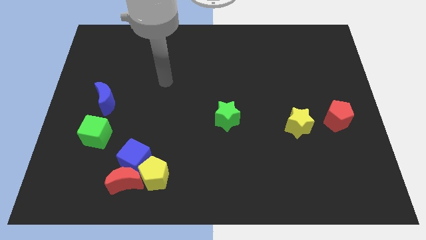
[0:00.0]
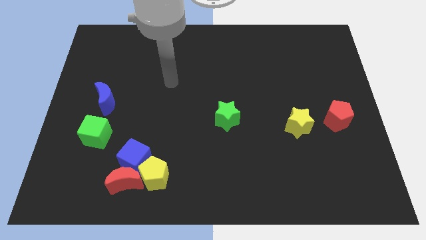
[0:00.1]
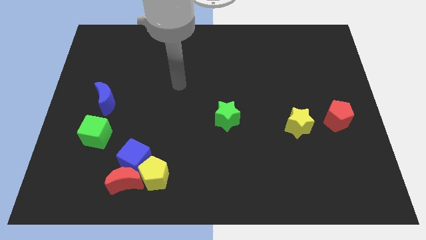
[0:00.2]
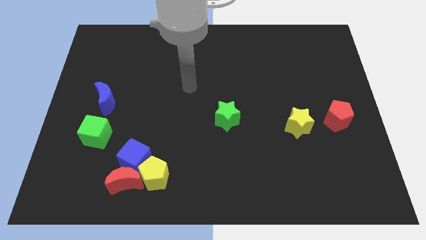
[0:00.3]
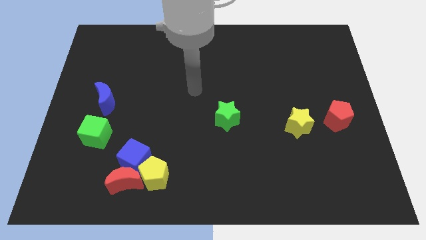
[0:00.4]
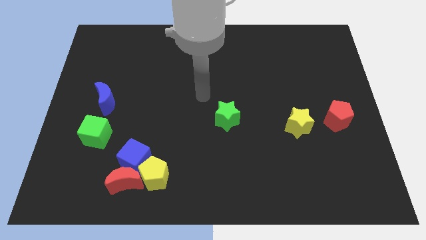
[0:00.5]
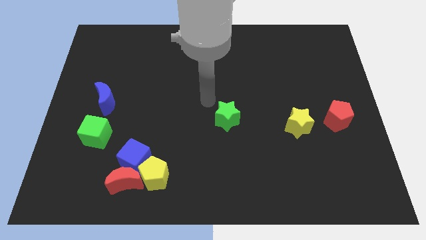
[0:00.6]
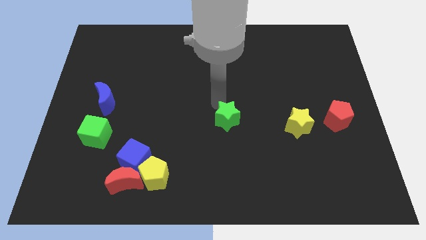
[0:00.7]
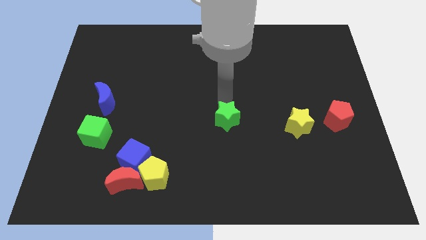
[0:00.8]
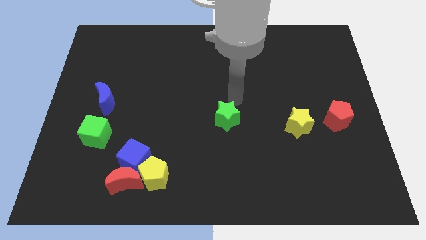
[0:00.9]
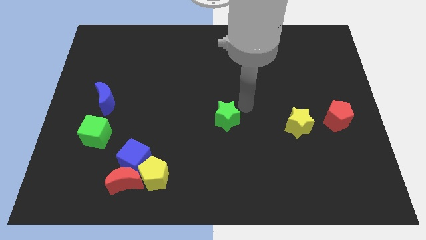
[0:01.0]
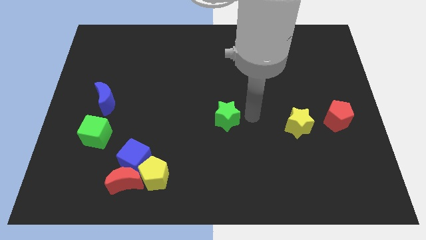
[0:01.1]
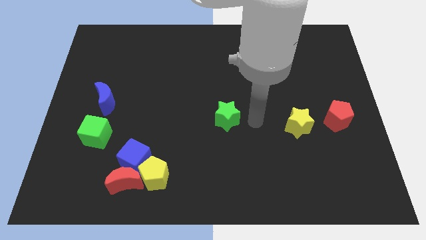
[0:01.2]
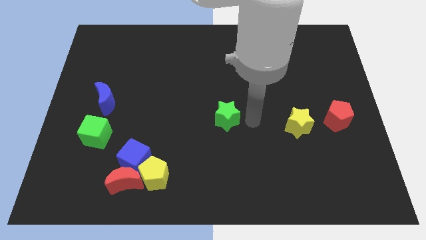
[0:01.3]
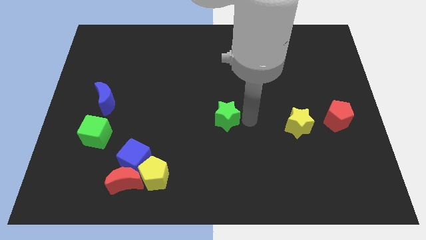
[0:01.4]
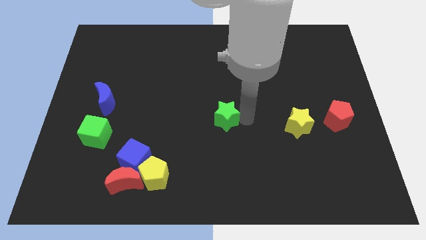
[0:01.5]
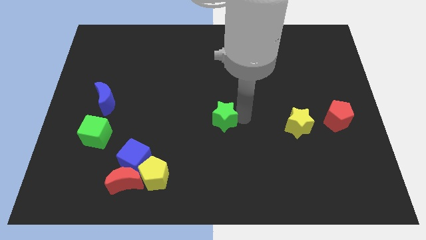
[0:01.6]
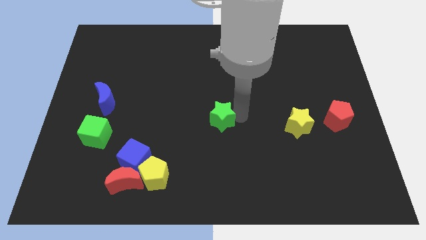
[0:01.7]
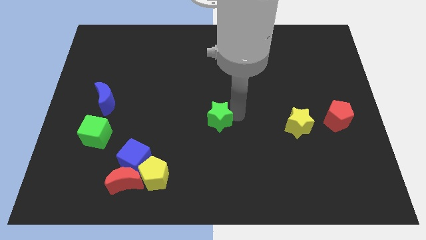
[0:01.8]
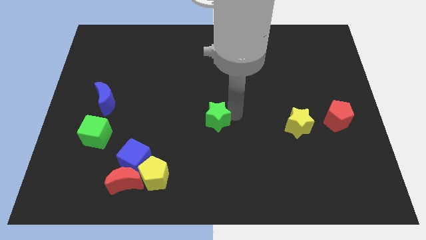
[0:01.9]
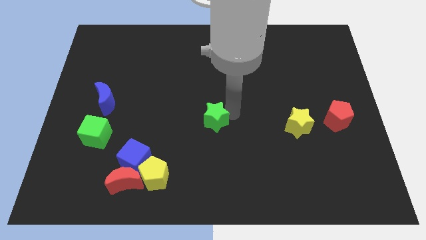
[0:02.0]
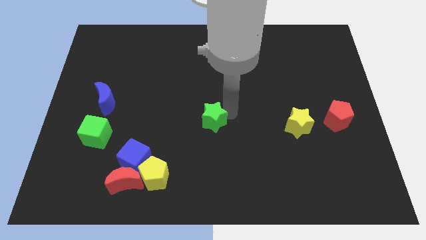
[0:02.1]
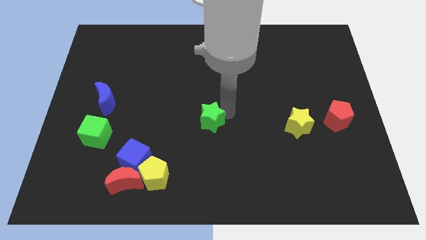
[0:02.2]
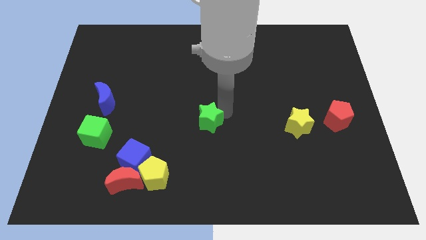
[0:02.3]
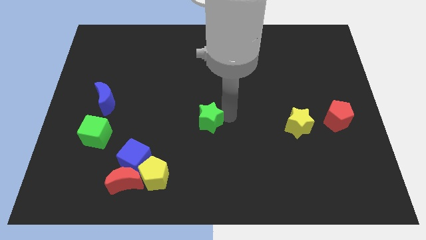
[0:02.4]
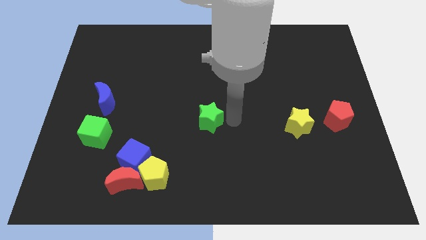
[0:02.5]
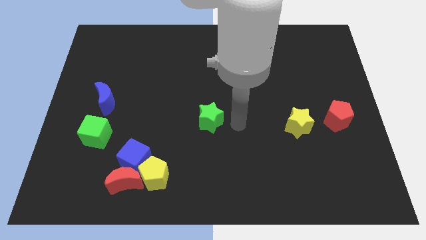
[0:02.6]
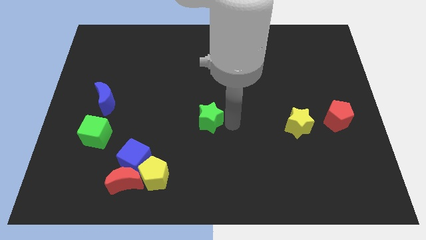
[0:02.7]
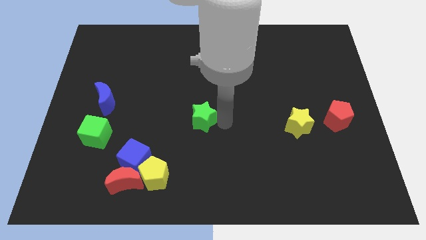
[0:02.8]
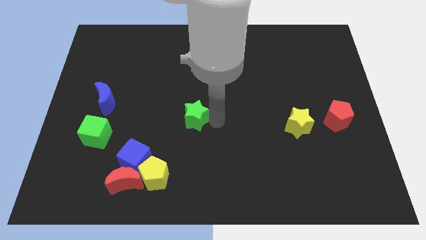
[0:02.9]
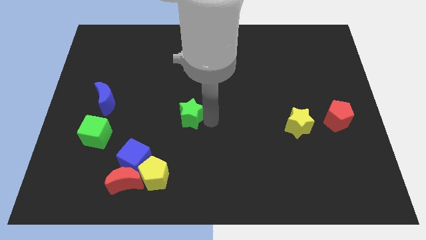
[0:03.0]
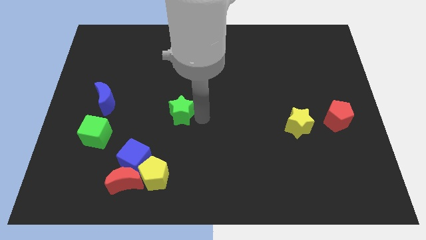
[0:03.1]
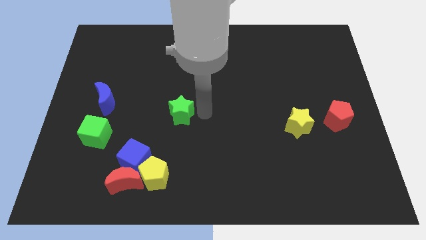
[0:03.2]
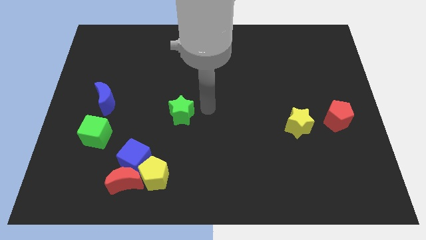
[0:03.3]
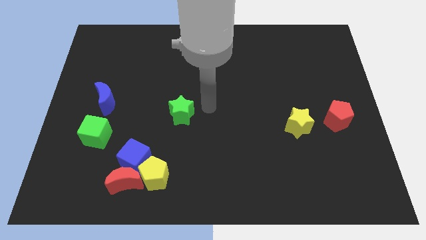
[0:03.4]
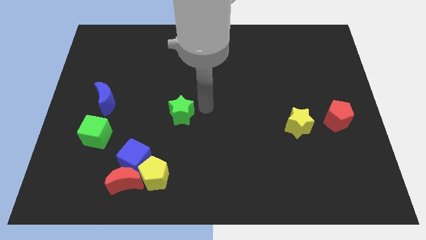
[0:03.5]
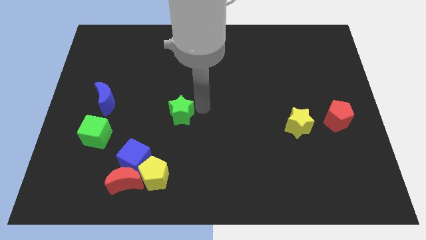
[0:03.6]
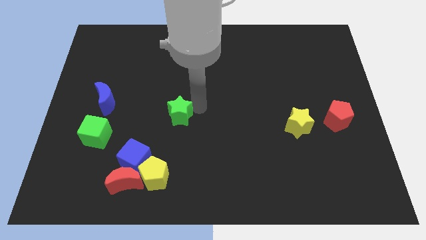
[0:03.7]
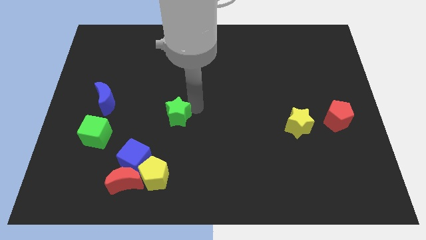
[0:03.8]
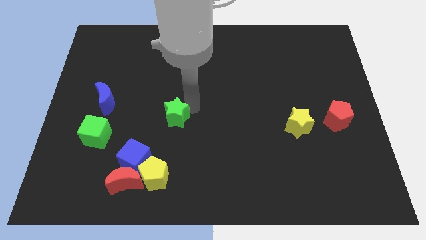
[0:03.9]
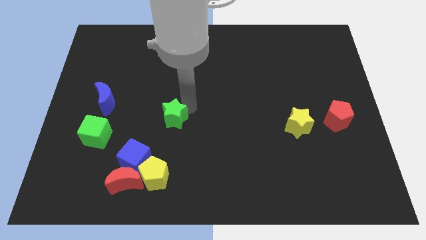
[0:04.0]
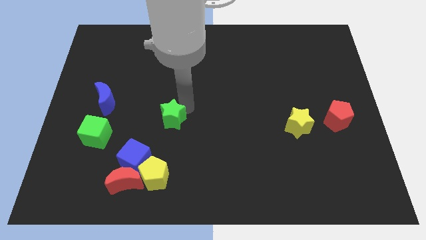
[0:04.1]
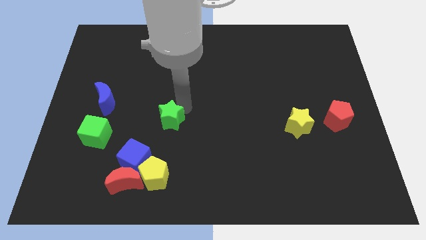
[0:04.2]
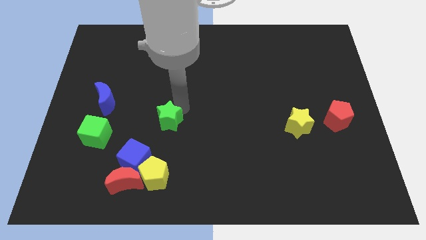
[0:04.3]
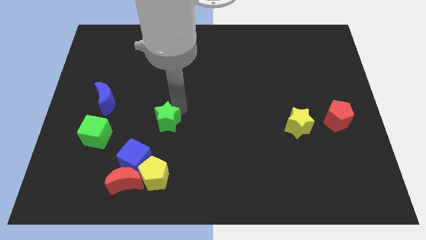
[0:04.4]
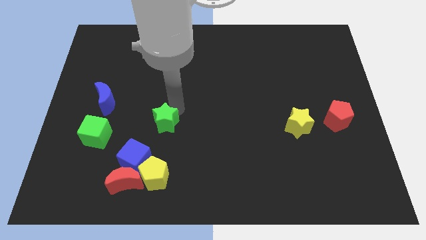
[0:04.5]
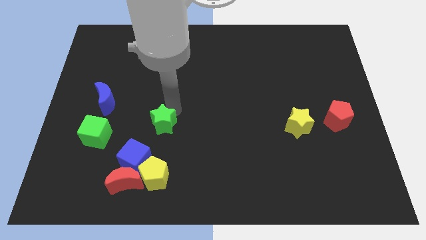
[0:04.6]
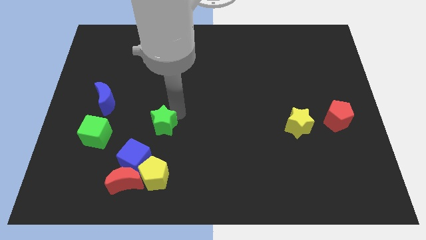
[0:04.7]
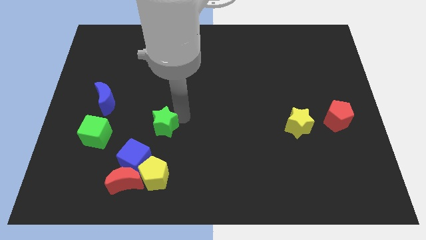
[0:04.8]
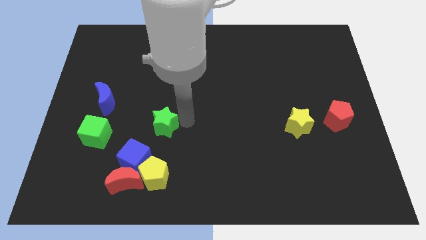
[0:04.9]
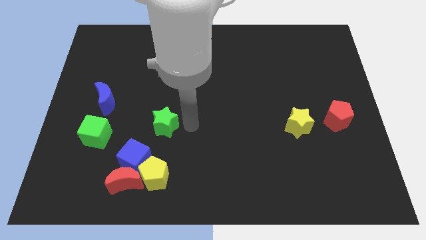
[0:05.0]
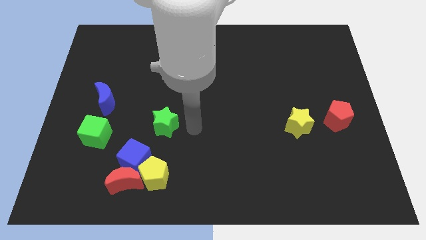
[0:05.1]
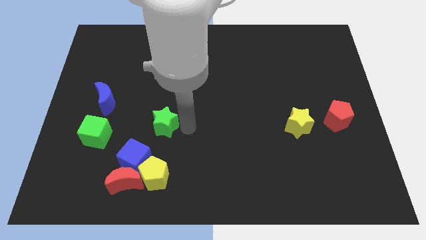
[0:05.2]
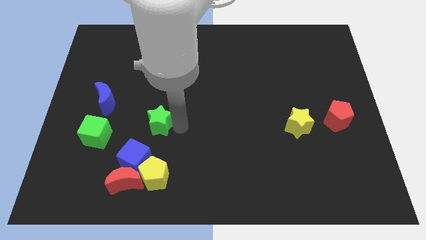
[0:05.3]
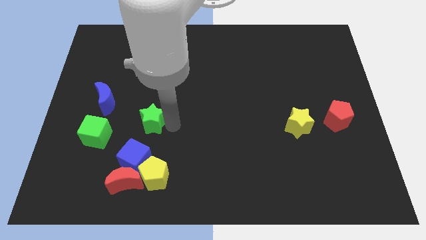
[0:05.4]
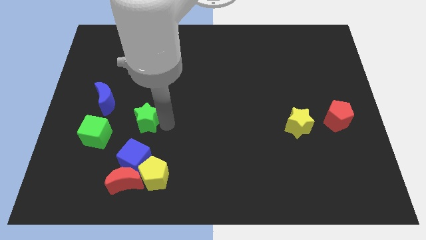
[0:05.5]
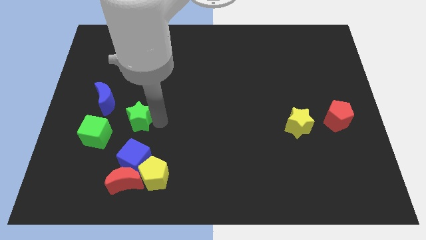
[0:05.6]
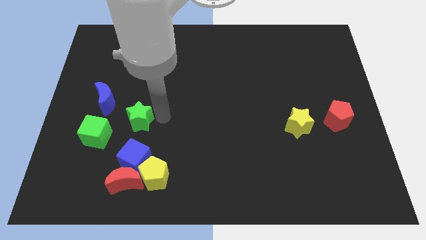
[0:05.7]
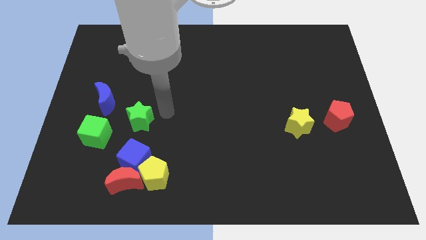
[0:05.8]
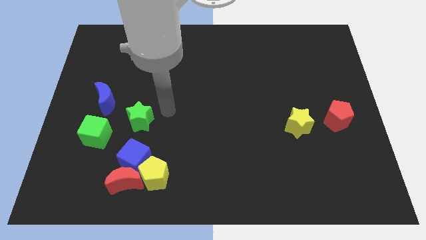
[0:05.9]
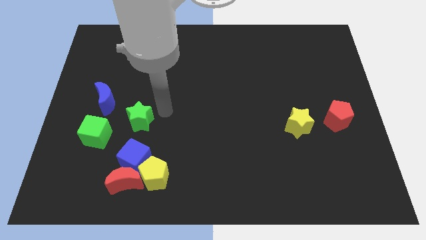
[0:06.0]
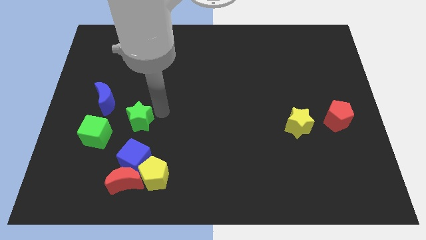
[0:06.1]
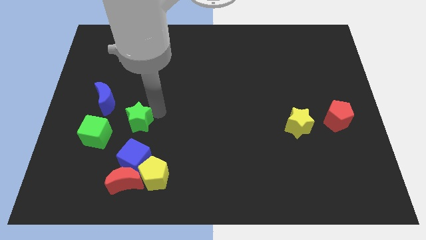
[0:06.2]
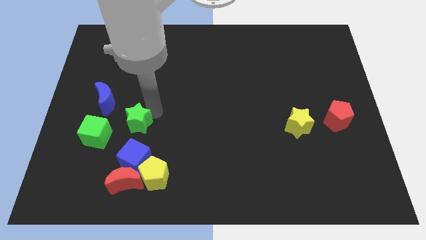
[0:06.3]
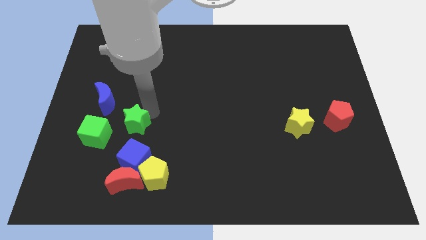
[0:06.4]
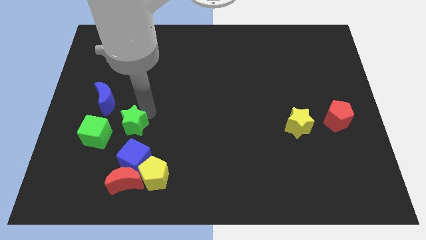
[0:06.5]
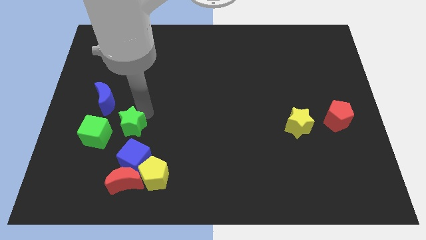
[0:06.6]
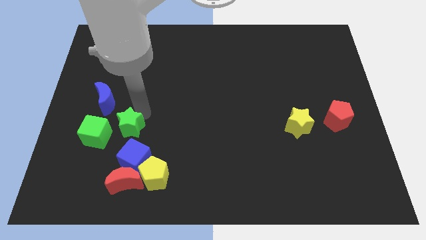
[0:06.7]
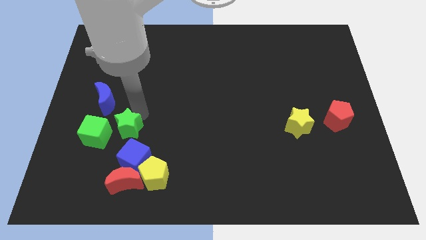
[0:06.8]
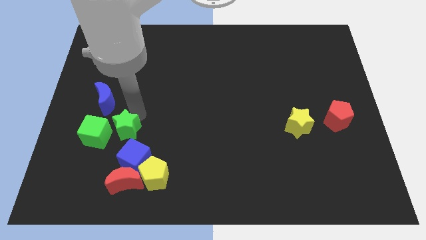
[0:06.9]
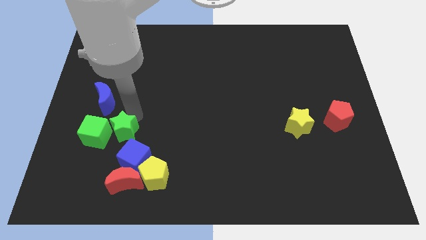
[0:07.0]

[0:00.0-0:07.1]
slide the green star close to the green cube
